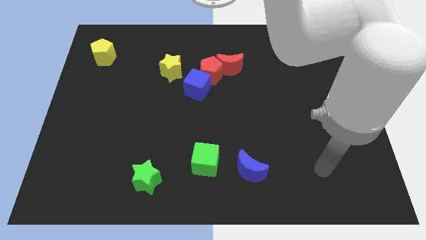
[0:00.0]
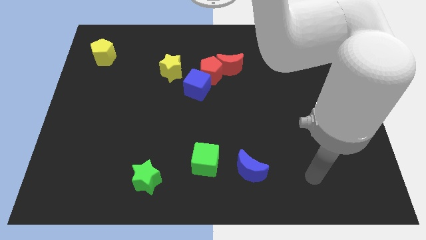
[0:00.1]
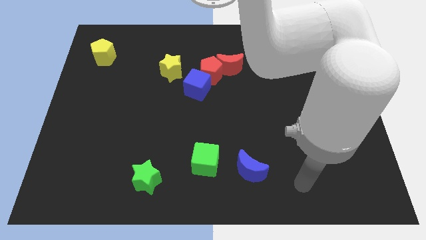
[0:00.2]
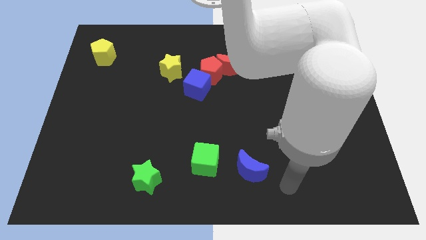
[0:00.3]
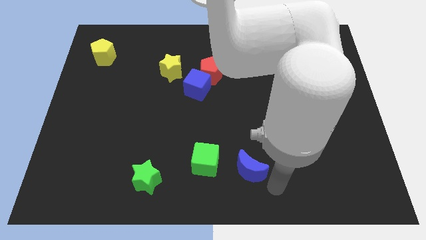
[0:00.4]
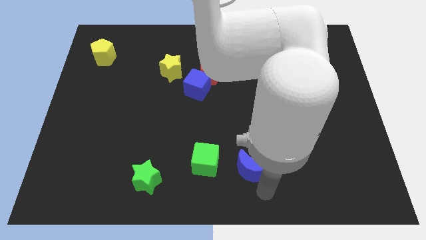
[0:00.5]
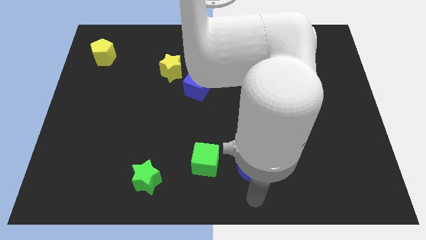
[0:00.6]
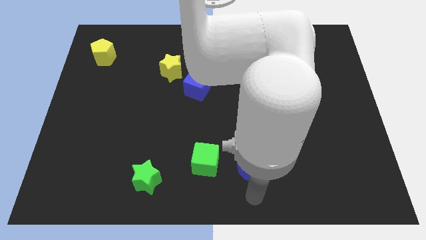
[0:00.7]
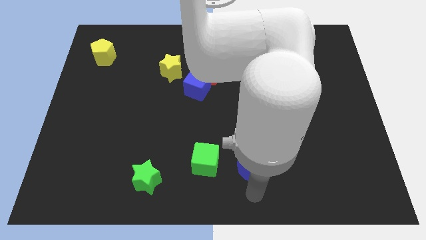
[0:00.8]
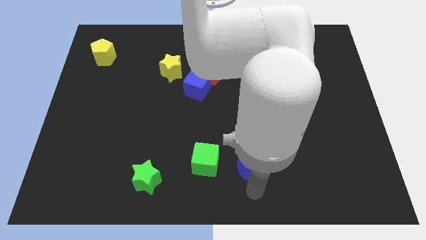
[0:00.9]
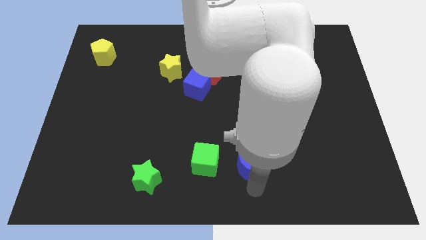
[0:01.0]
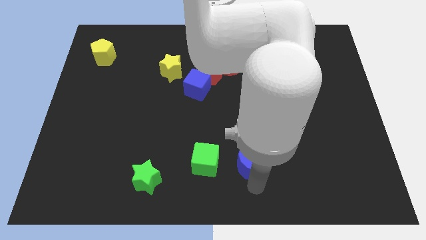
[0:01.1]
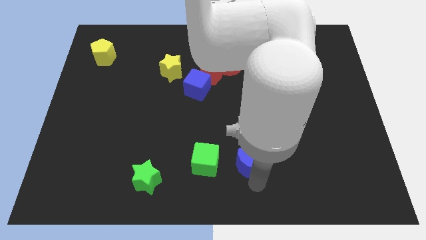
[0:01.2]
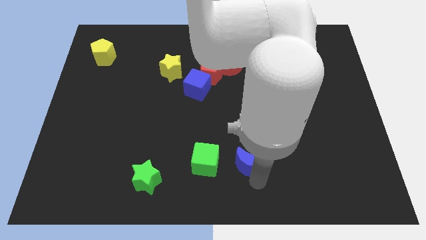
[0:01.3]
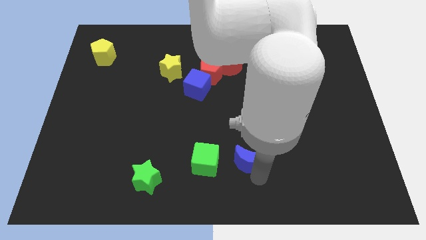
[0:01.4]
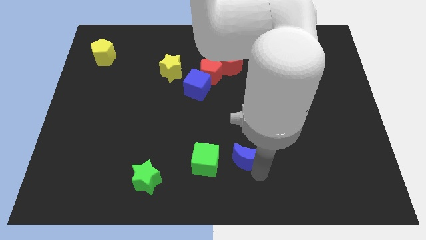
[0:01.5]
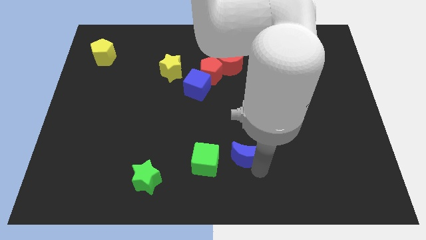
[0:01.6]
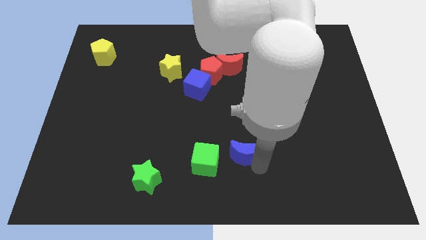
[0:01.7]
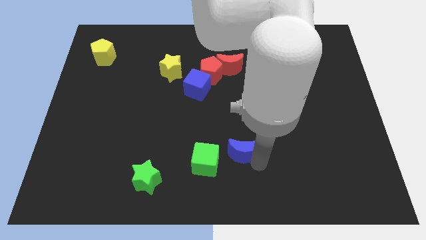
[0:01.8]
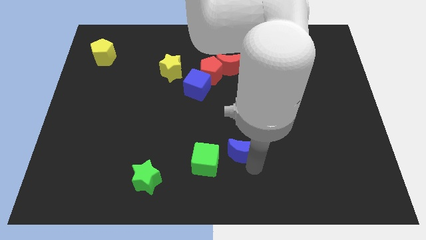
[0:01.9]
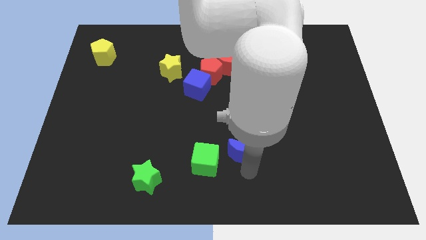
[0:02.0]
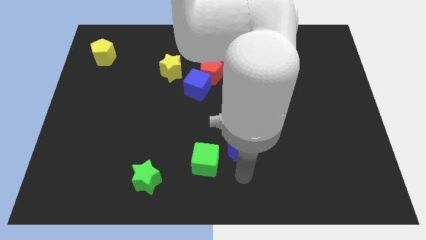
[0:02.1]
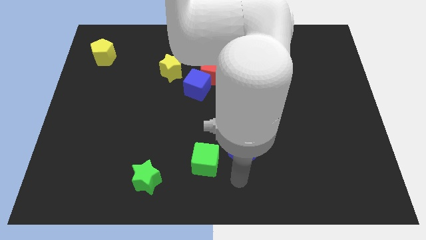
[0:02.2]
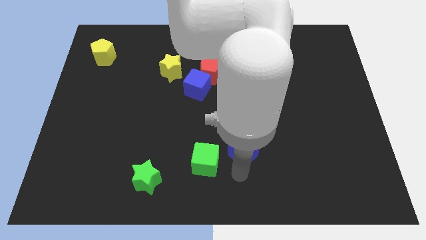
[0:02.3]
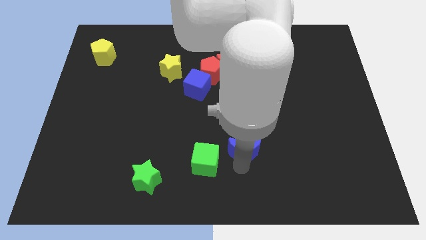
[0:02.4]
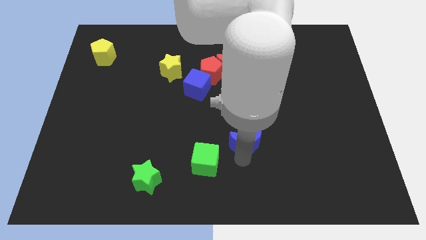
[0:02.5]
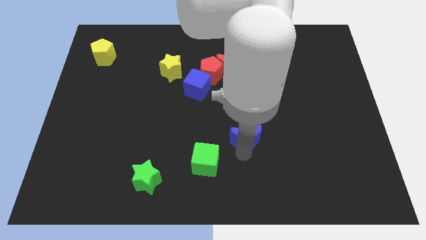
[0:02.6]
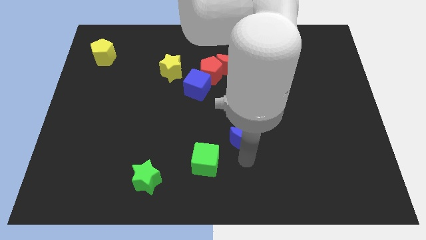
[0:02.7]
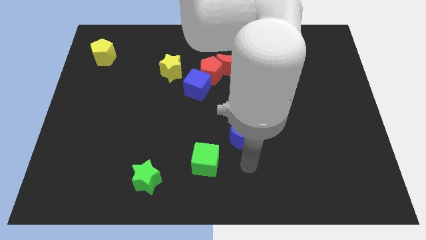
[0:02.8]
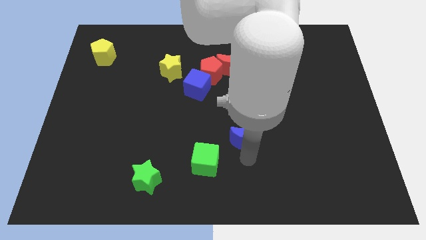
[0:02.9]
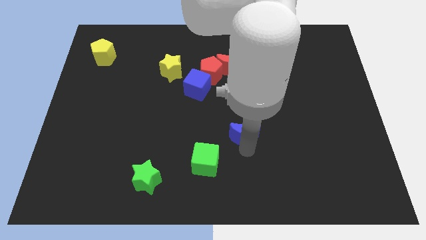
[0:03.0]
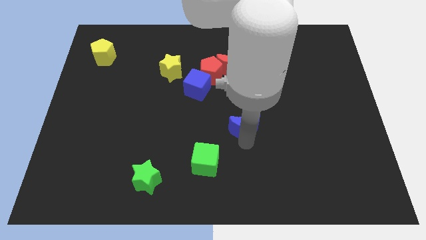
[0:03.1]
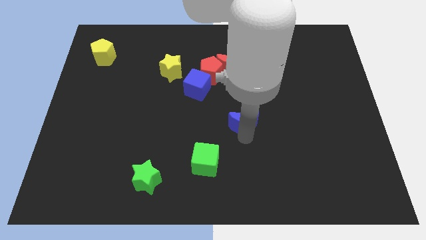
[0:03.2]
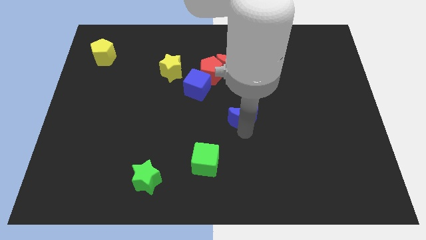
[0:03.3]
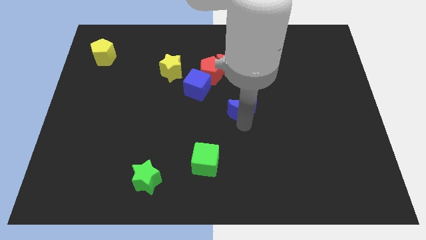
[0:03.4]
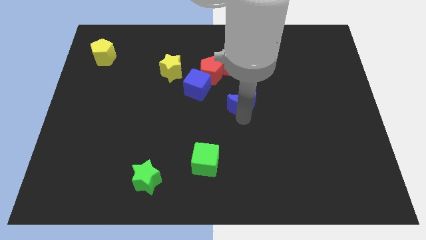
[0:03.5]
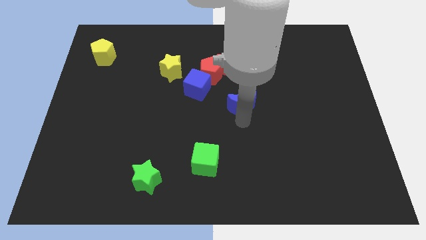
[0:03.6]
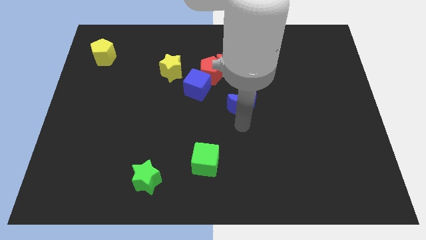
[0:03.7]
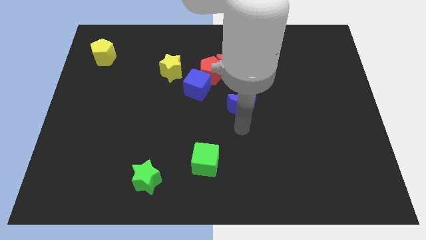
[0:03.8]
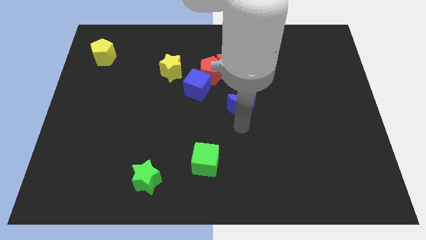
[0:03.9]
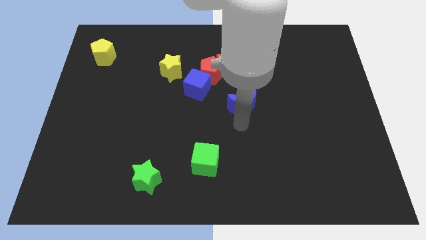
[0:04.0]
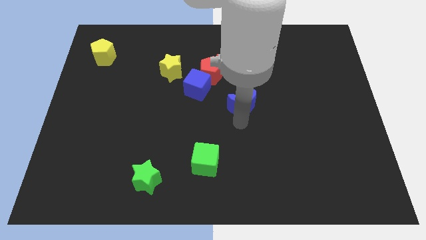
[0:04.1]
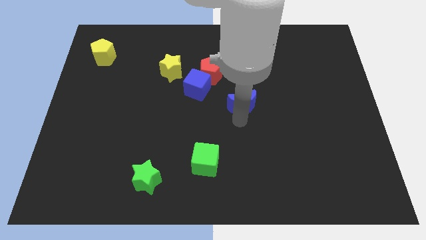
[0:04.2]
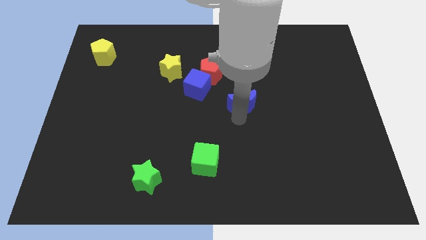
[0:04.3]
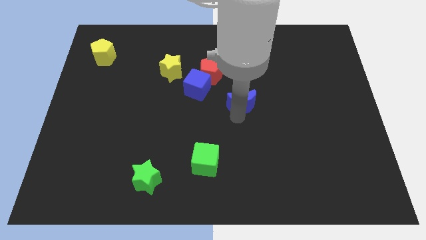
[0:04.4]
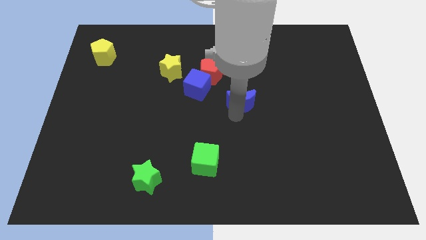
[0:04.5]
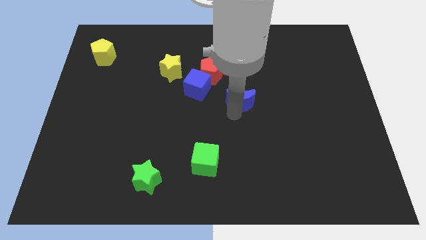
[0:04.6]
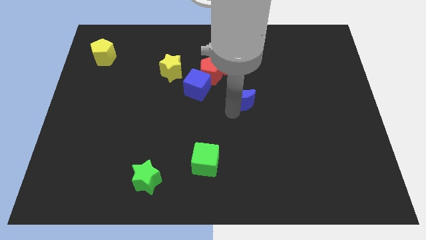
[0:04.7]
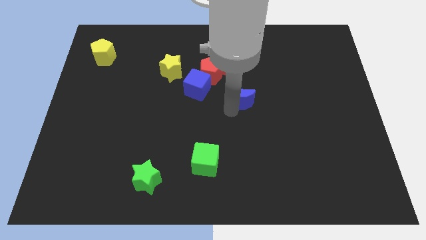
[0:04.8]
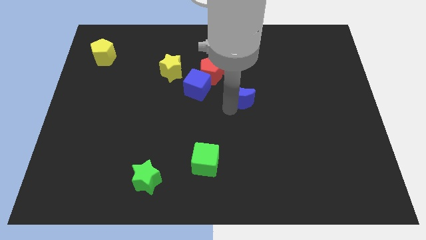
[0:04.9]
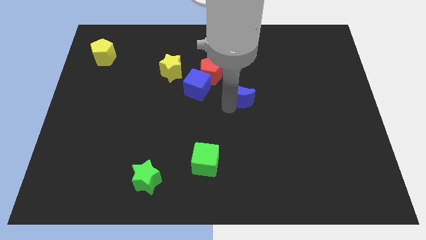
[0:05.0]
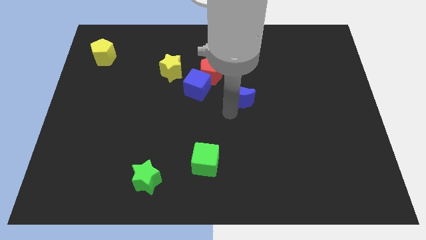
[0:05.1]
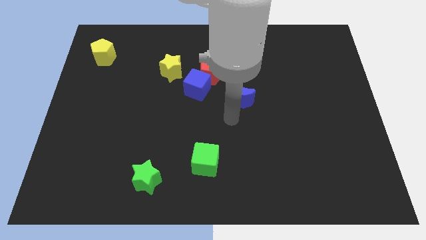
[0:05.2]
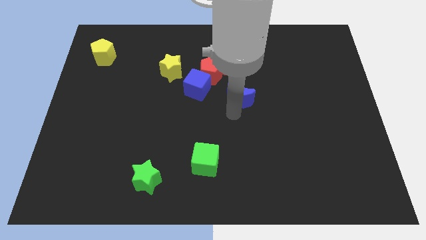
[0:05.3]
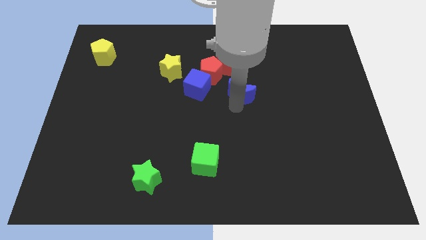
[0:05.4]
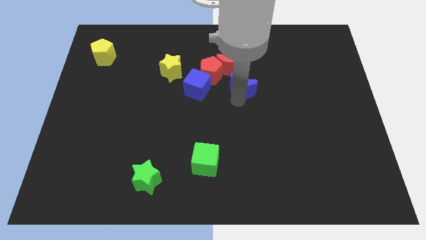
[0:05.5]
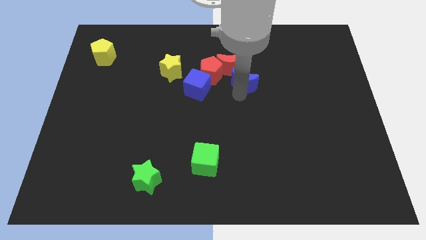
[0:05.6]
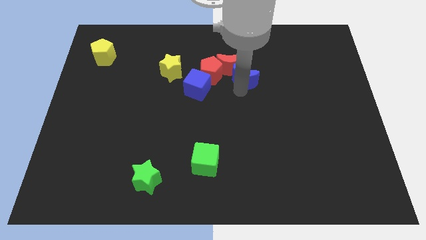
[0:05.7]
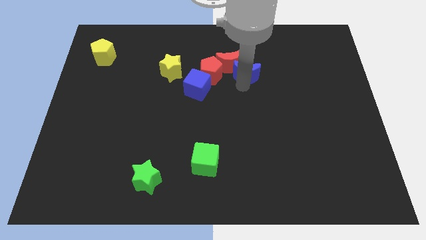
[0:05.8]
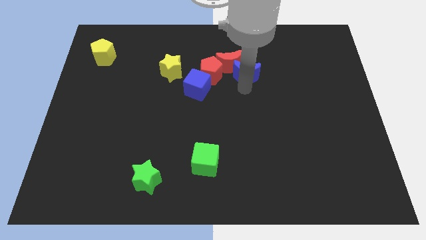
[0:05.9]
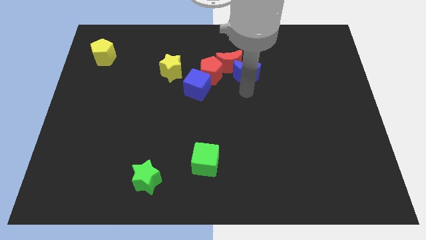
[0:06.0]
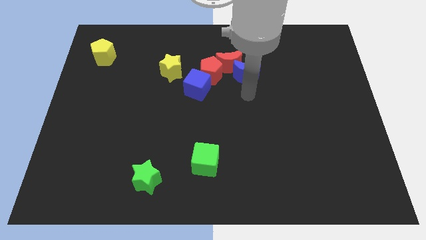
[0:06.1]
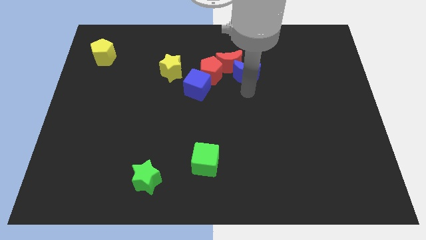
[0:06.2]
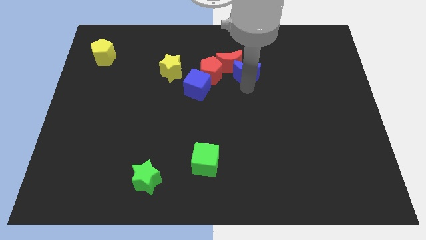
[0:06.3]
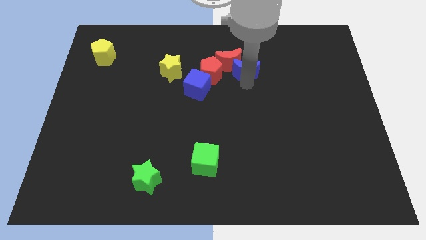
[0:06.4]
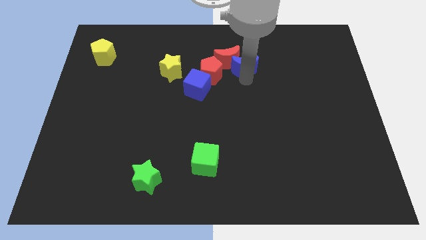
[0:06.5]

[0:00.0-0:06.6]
push the blue moon diagonally up and to the right of the red pentagon

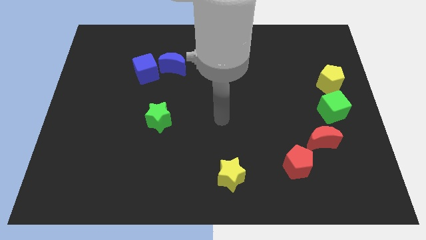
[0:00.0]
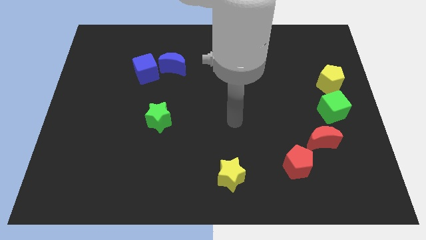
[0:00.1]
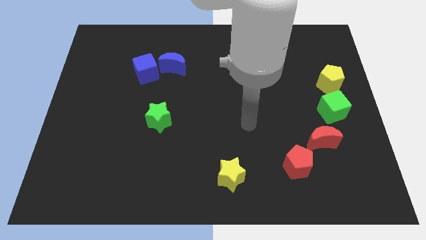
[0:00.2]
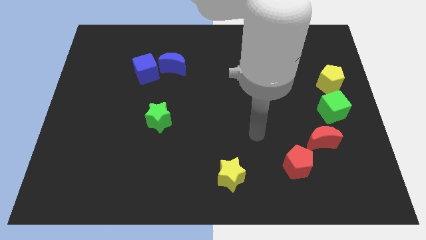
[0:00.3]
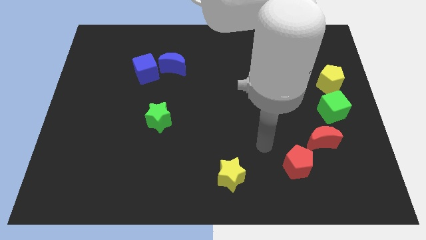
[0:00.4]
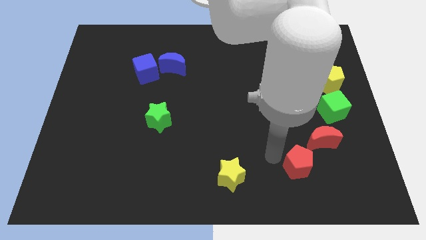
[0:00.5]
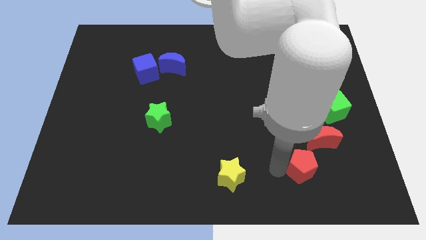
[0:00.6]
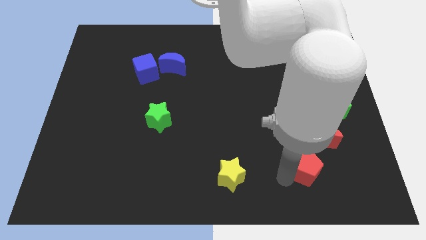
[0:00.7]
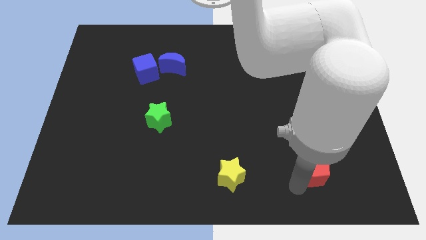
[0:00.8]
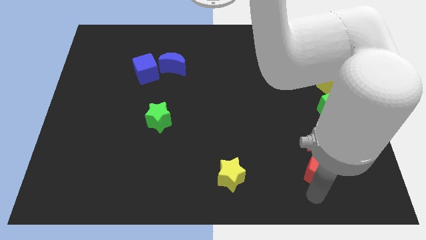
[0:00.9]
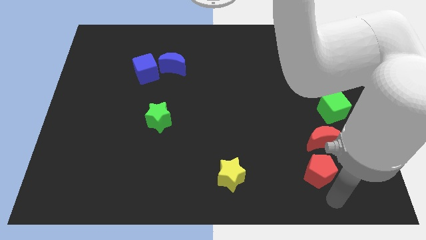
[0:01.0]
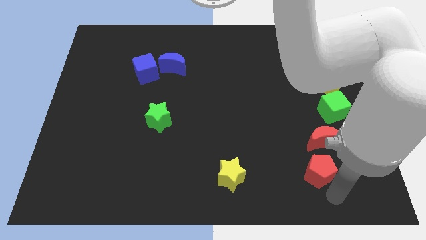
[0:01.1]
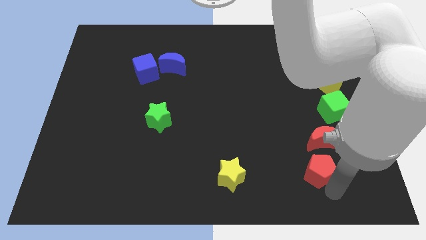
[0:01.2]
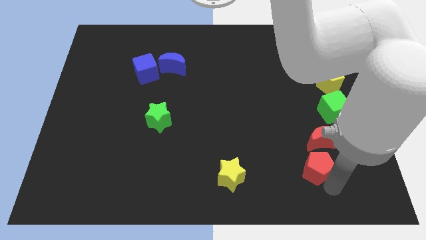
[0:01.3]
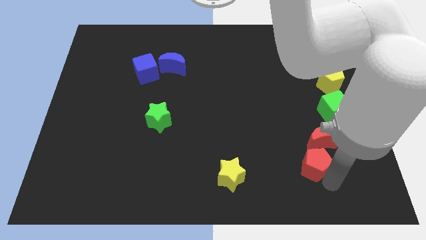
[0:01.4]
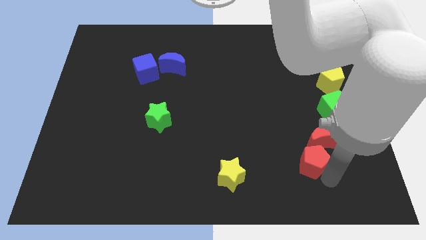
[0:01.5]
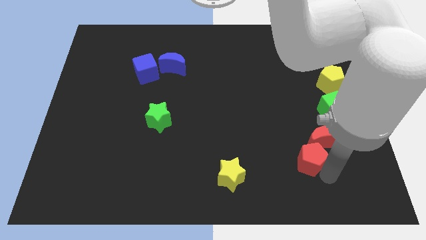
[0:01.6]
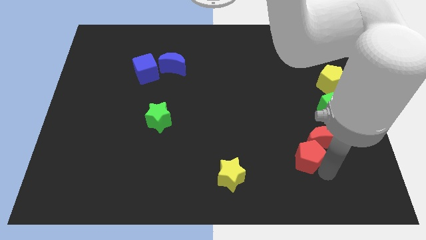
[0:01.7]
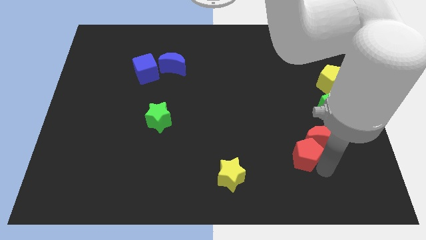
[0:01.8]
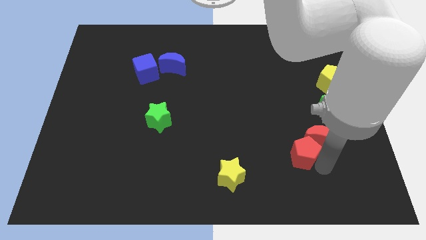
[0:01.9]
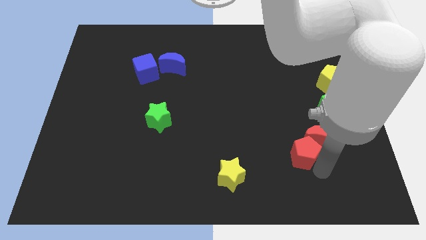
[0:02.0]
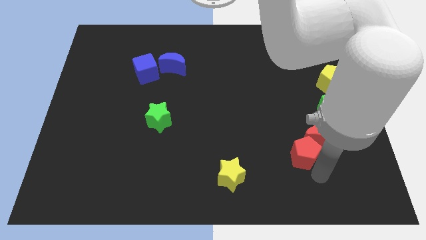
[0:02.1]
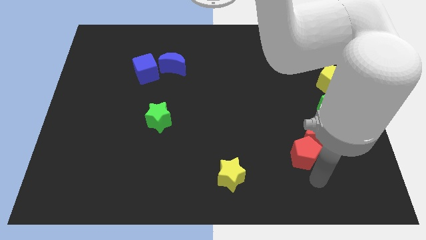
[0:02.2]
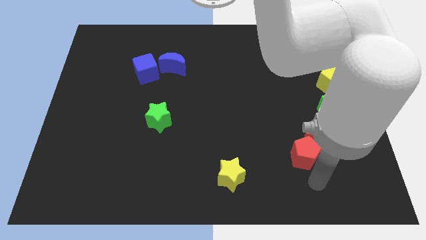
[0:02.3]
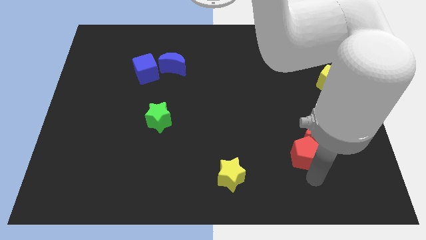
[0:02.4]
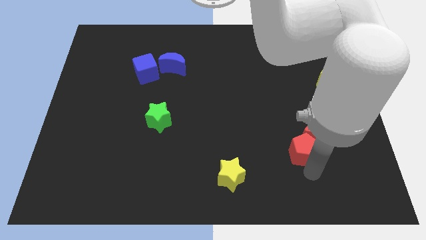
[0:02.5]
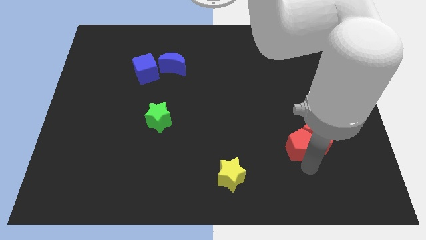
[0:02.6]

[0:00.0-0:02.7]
put the red pentagon to the top left side of the red moon
